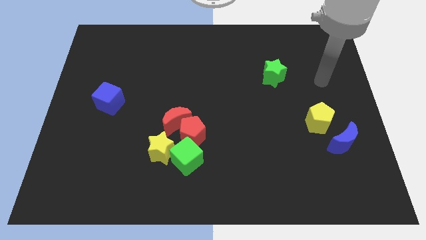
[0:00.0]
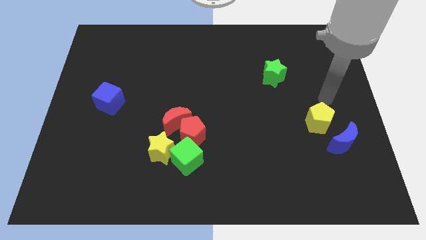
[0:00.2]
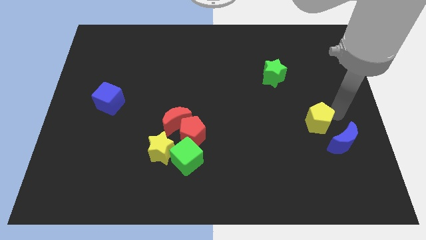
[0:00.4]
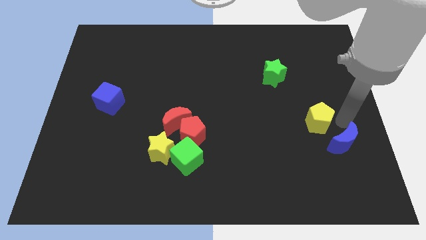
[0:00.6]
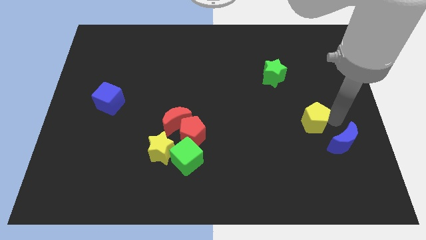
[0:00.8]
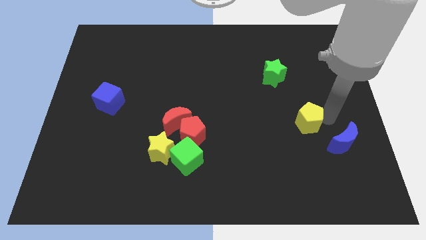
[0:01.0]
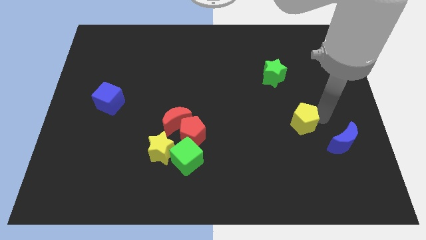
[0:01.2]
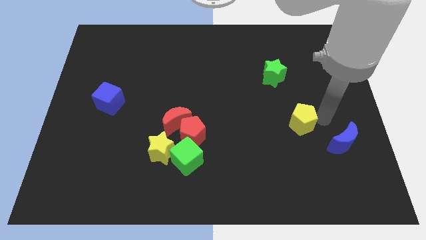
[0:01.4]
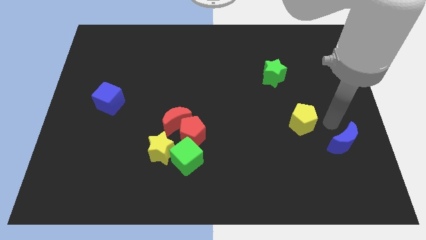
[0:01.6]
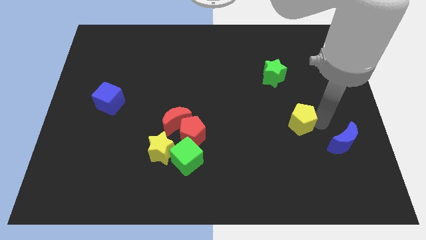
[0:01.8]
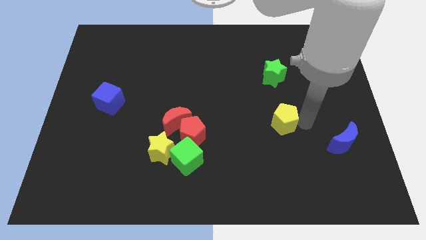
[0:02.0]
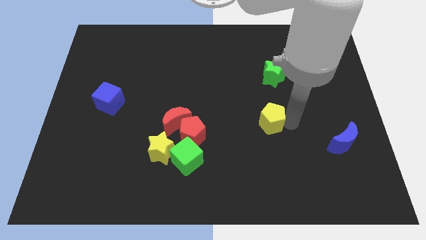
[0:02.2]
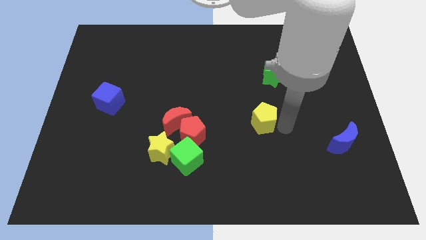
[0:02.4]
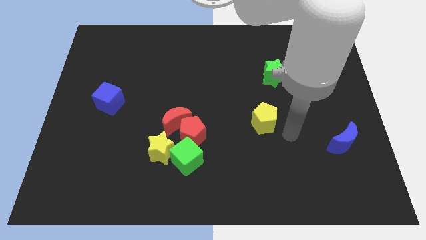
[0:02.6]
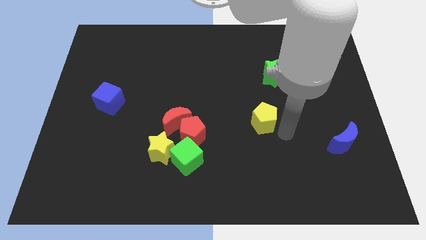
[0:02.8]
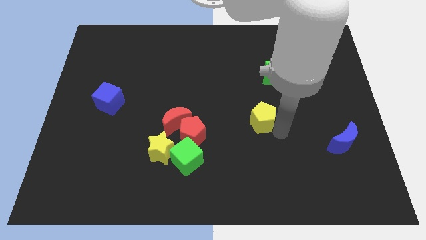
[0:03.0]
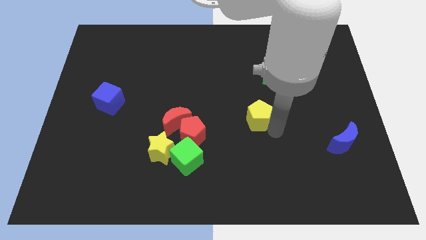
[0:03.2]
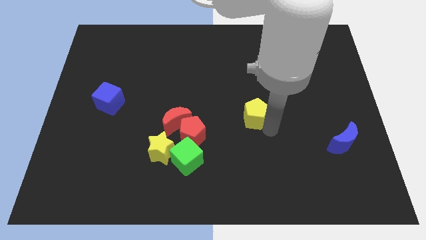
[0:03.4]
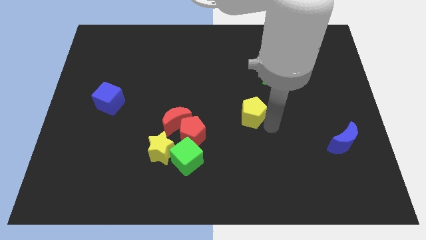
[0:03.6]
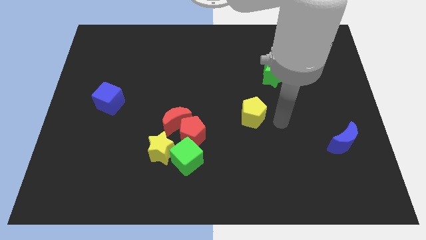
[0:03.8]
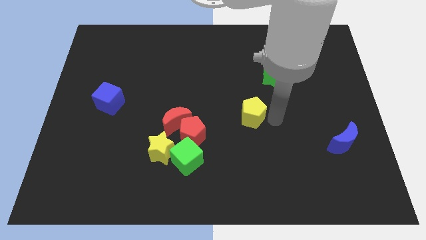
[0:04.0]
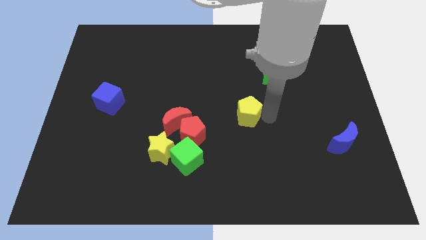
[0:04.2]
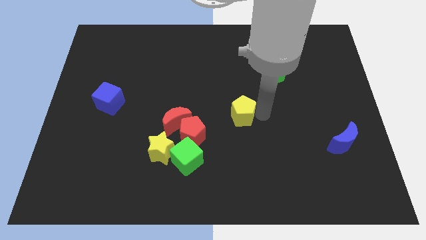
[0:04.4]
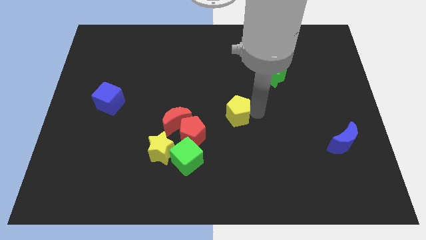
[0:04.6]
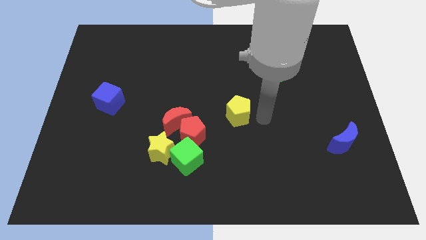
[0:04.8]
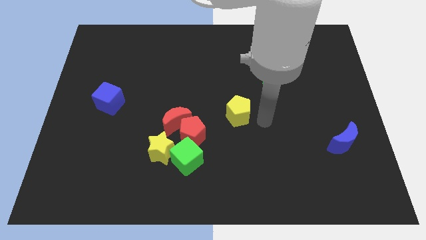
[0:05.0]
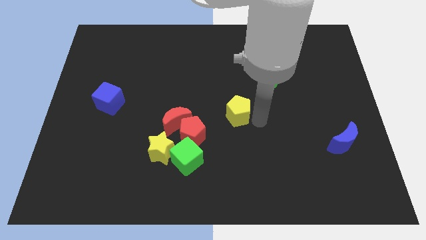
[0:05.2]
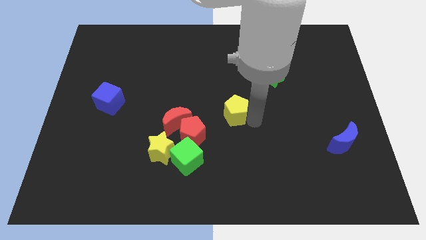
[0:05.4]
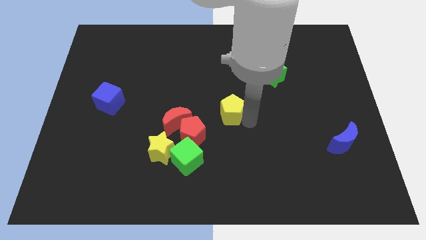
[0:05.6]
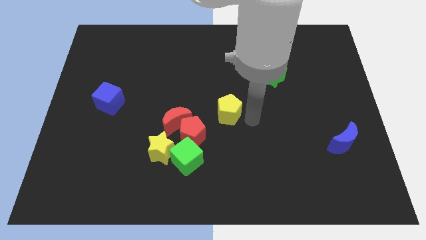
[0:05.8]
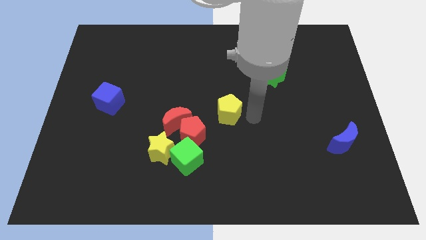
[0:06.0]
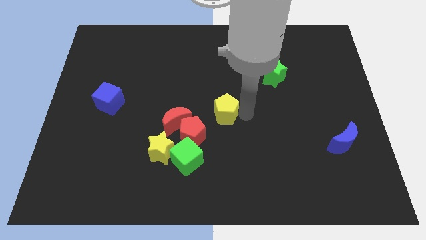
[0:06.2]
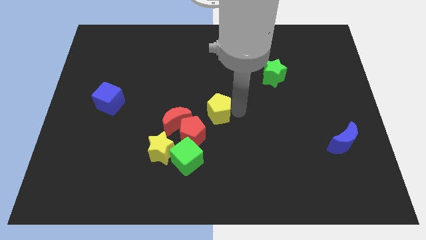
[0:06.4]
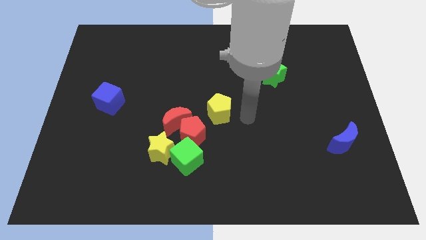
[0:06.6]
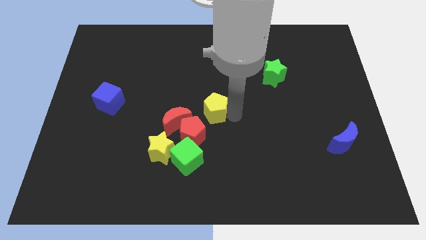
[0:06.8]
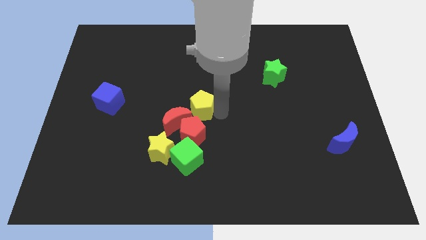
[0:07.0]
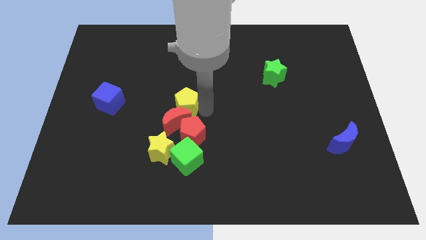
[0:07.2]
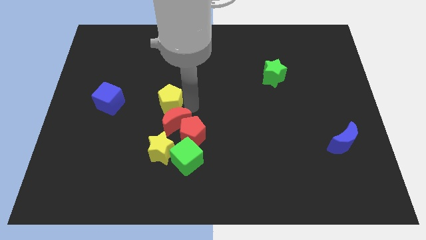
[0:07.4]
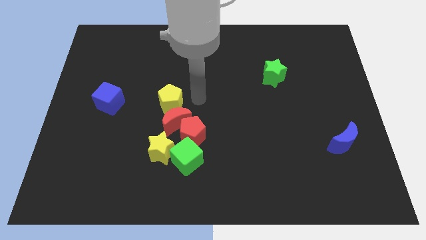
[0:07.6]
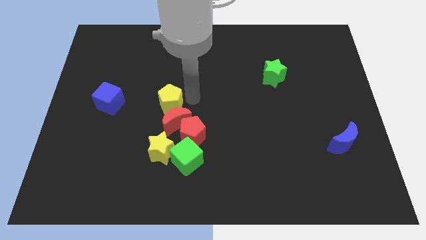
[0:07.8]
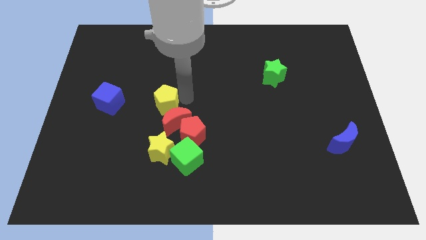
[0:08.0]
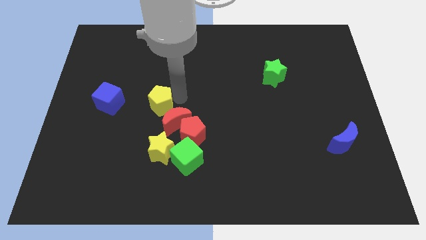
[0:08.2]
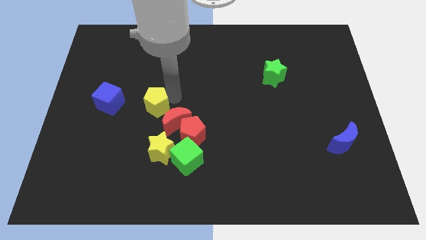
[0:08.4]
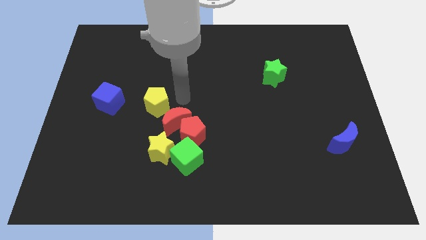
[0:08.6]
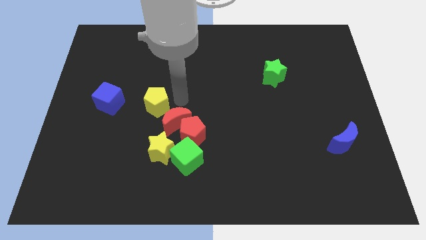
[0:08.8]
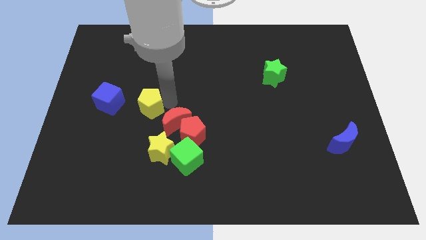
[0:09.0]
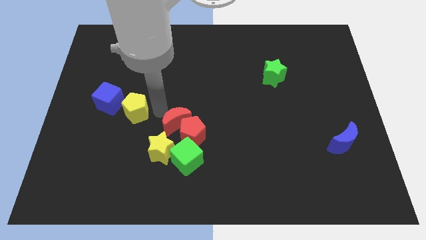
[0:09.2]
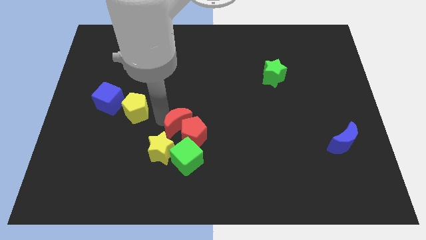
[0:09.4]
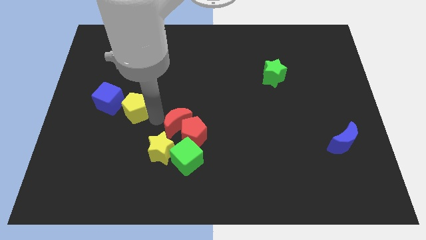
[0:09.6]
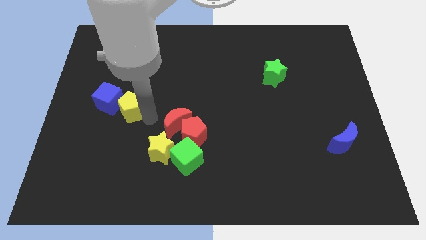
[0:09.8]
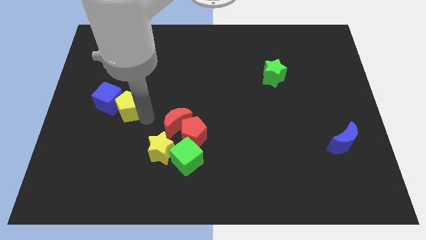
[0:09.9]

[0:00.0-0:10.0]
put the yellow pentagon towards the blue cube

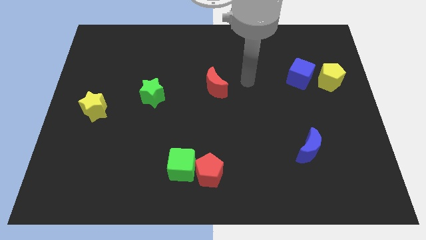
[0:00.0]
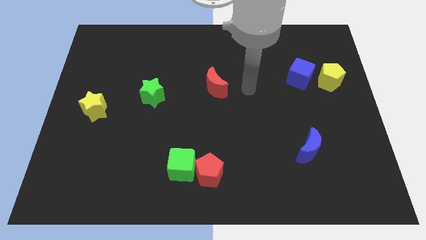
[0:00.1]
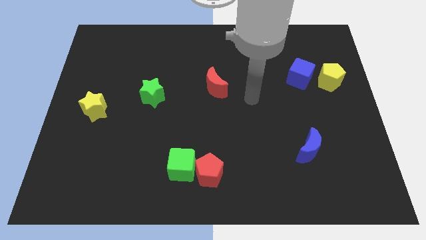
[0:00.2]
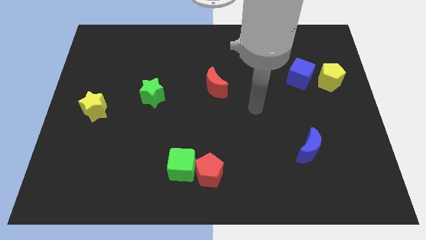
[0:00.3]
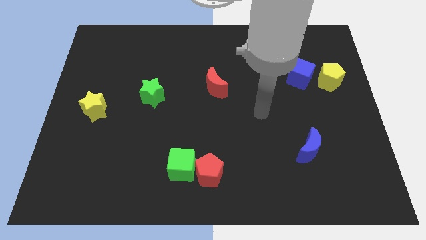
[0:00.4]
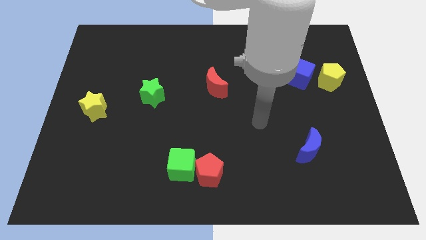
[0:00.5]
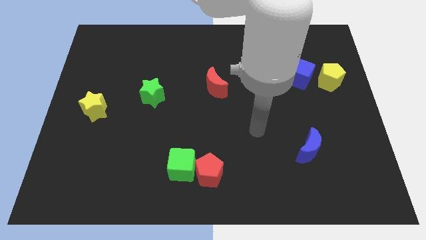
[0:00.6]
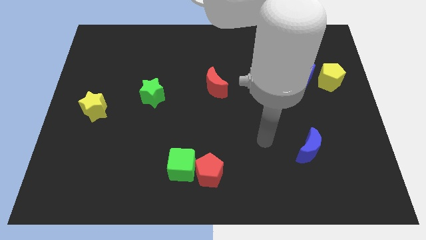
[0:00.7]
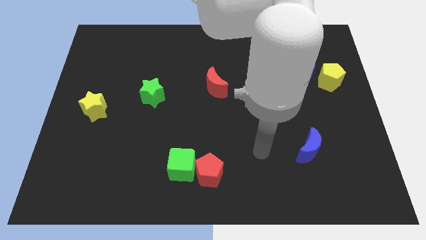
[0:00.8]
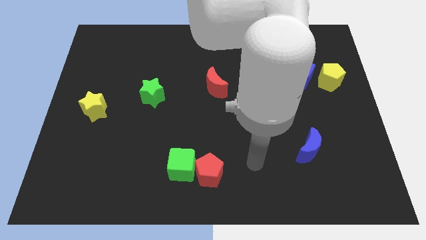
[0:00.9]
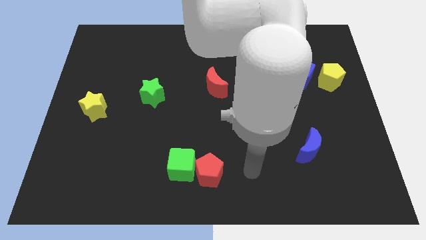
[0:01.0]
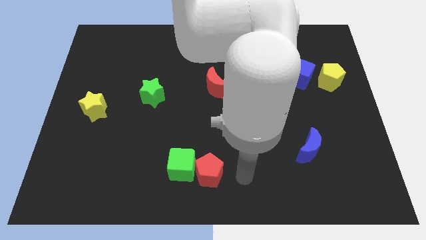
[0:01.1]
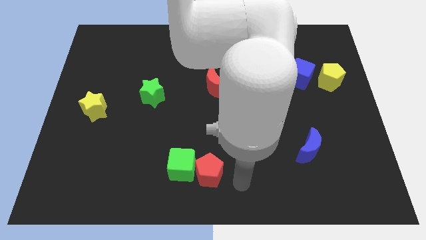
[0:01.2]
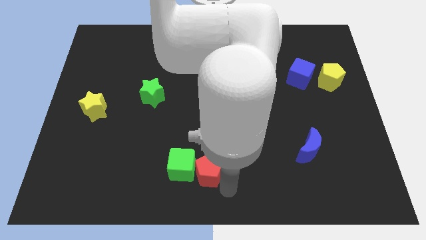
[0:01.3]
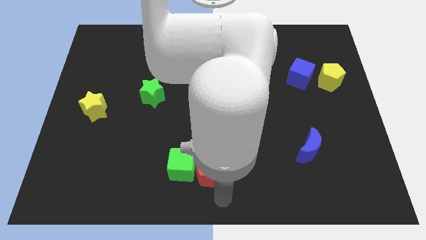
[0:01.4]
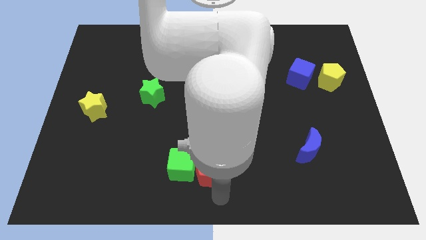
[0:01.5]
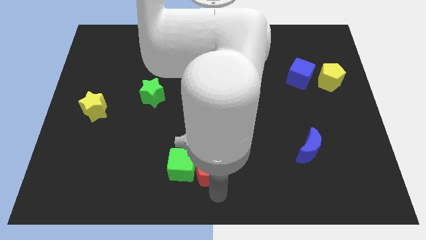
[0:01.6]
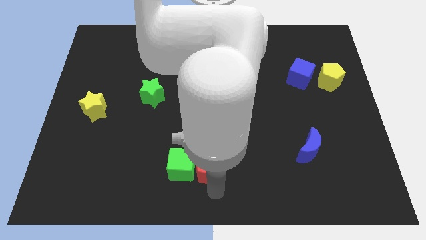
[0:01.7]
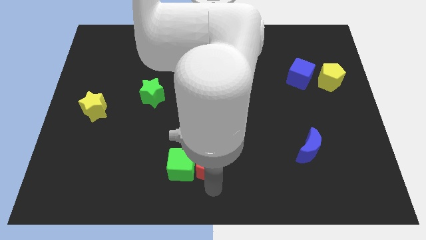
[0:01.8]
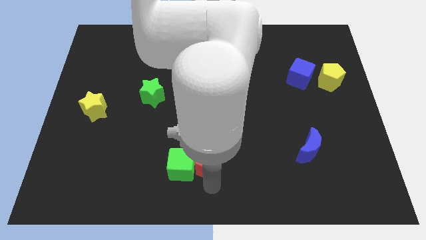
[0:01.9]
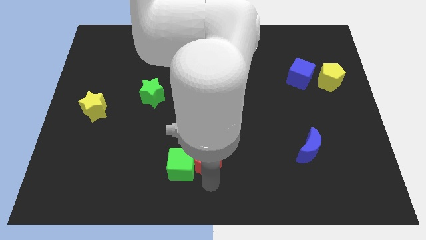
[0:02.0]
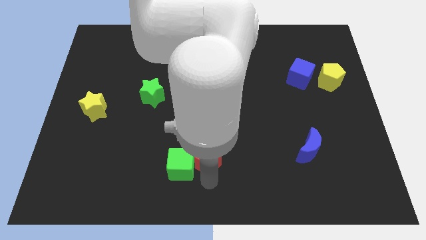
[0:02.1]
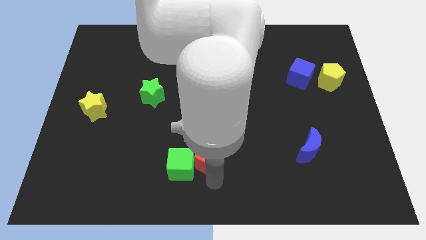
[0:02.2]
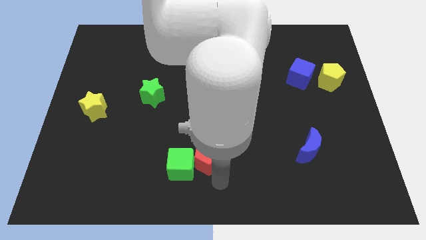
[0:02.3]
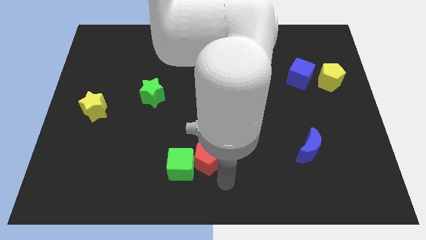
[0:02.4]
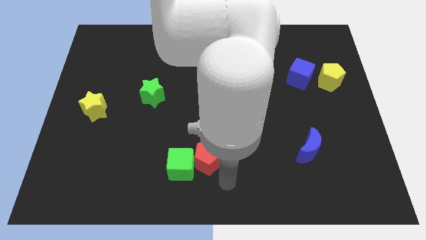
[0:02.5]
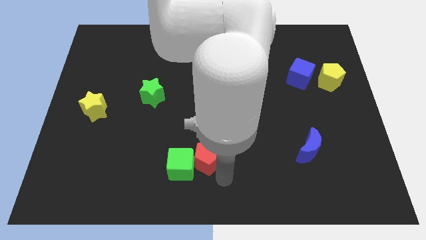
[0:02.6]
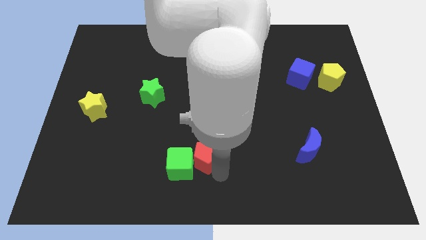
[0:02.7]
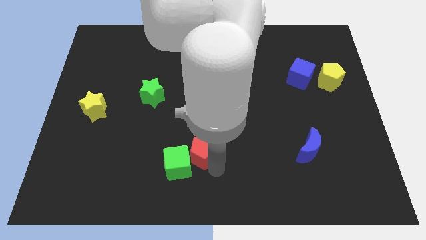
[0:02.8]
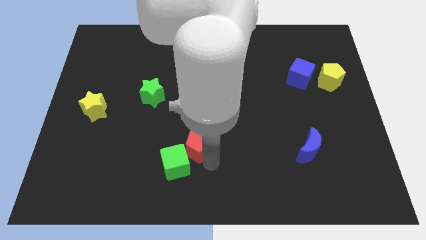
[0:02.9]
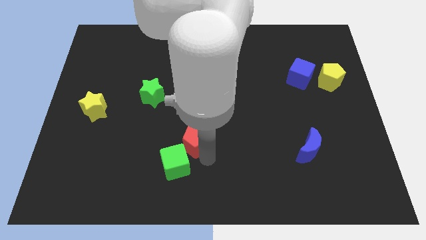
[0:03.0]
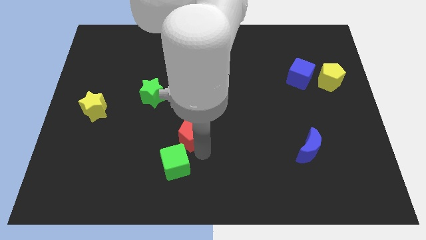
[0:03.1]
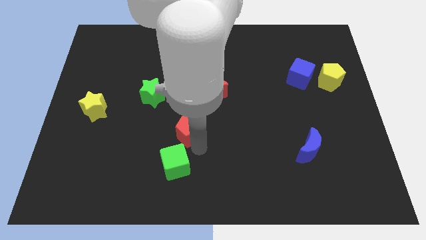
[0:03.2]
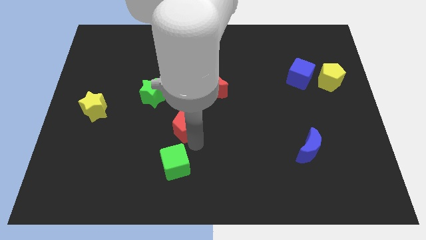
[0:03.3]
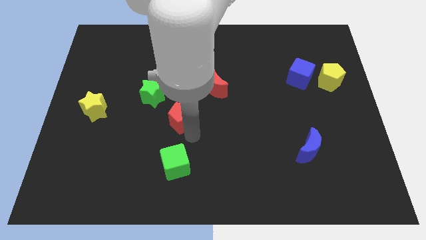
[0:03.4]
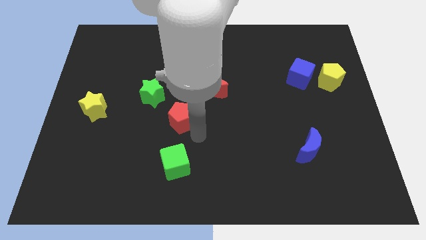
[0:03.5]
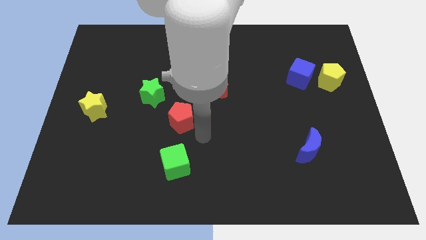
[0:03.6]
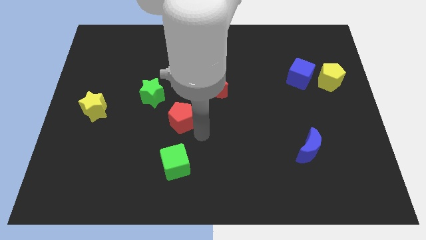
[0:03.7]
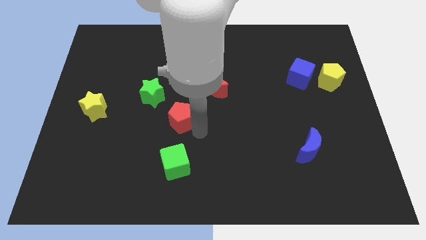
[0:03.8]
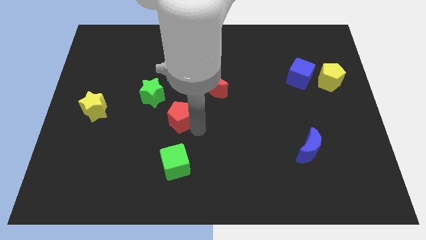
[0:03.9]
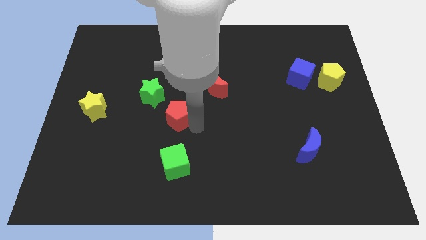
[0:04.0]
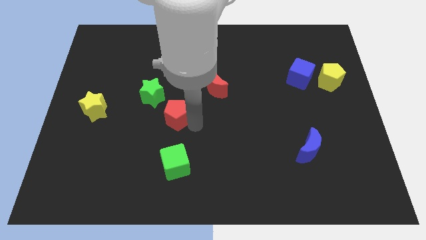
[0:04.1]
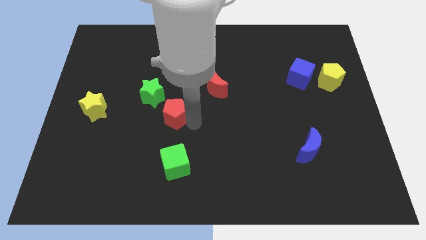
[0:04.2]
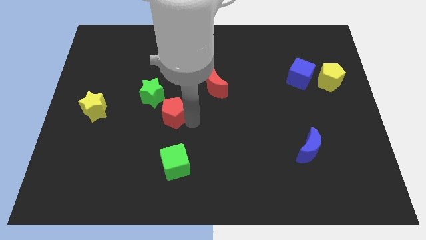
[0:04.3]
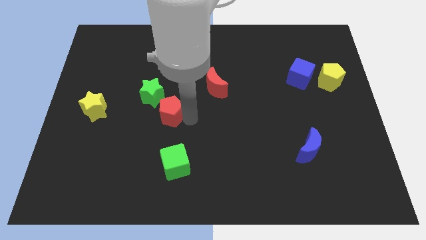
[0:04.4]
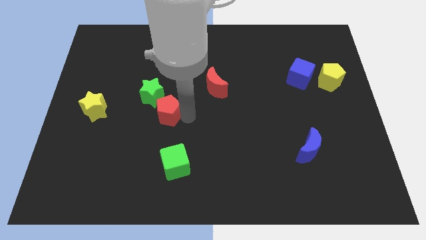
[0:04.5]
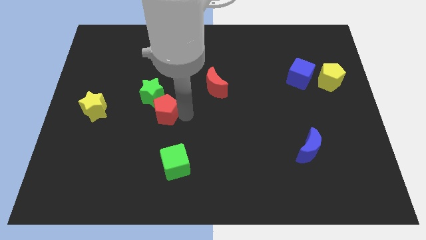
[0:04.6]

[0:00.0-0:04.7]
slide the red pentagon next to the green star
